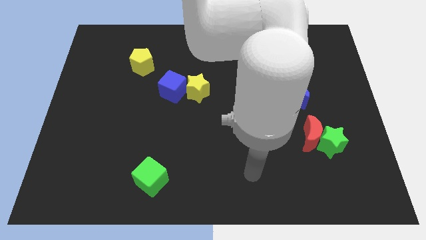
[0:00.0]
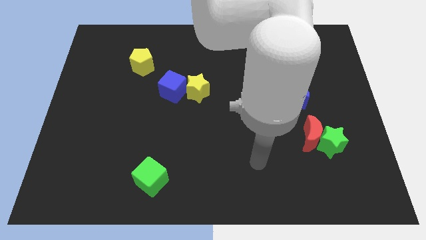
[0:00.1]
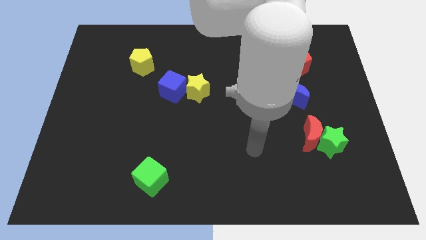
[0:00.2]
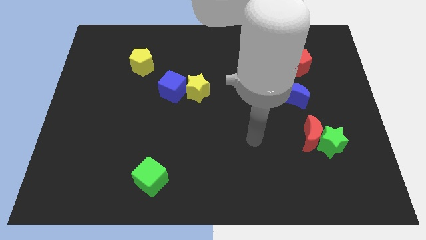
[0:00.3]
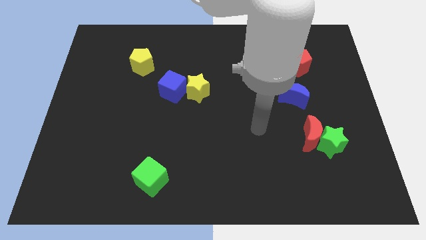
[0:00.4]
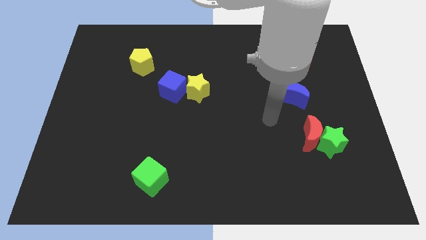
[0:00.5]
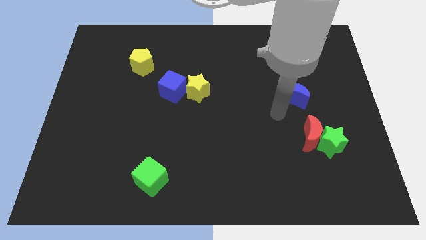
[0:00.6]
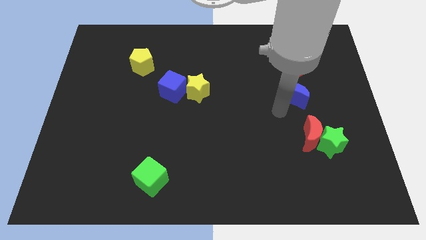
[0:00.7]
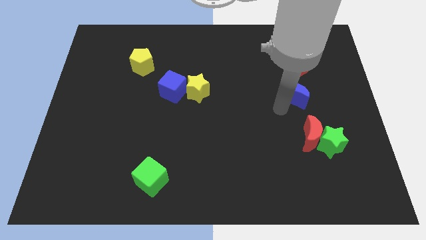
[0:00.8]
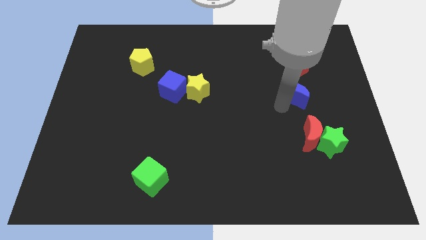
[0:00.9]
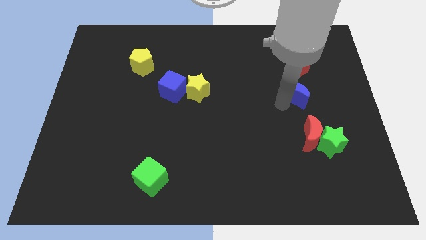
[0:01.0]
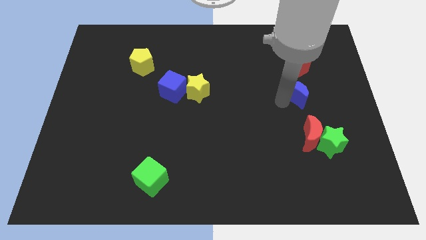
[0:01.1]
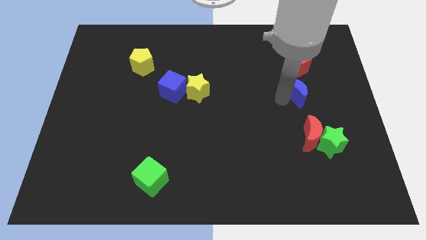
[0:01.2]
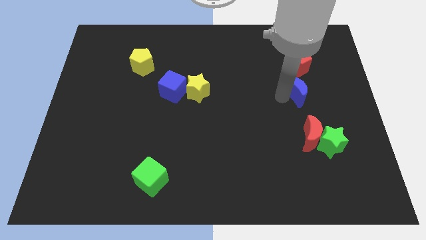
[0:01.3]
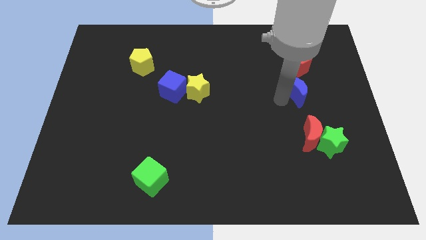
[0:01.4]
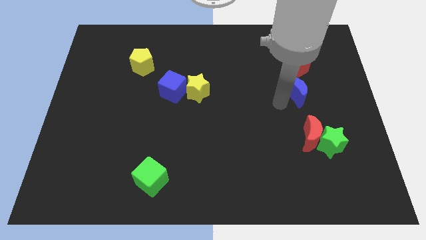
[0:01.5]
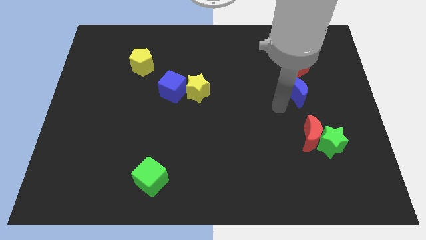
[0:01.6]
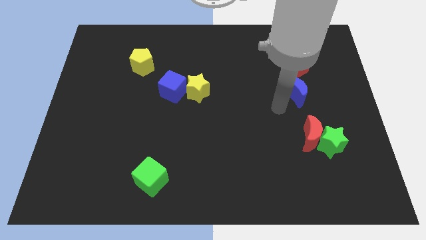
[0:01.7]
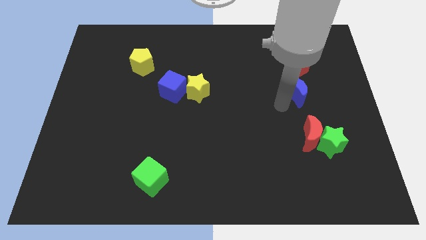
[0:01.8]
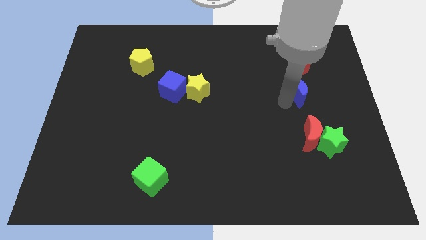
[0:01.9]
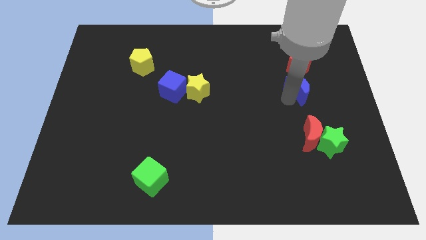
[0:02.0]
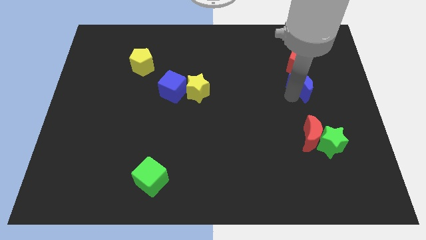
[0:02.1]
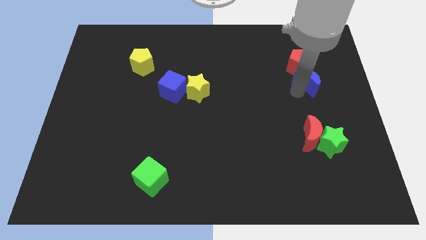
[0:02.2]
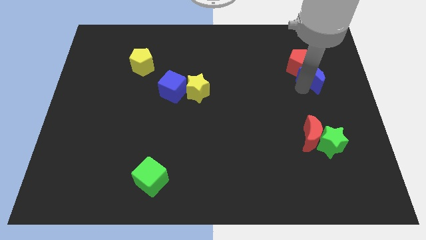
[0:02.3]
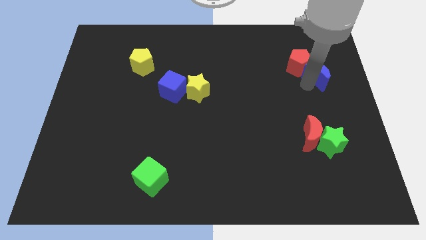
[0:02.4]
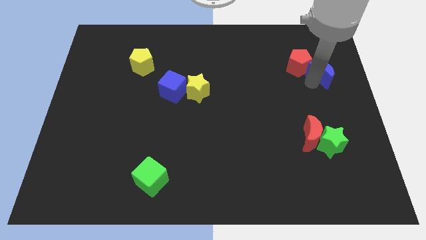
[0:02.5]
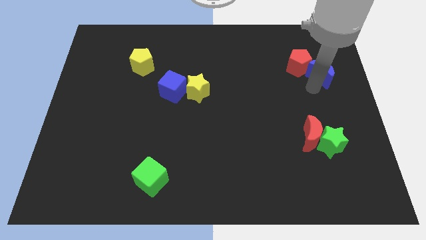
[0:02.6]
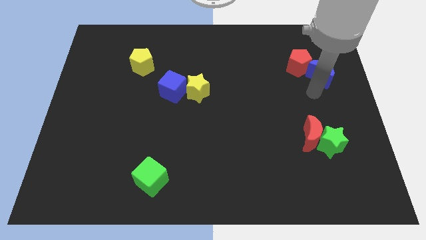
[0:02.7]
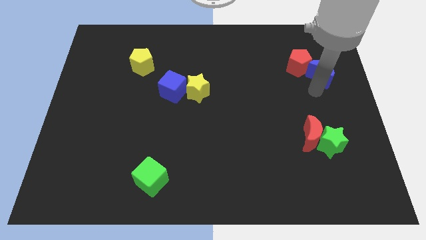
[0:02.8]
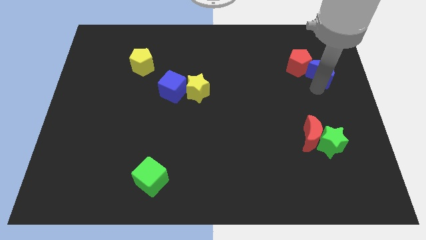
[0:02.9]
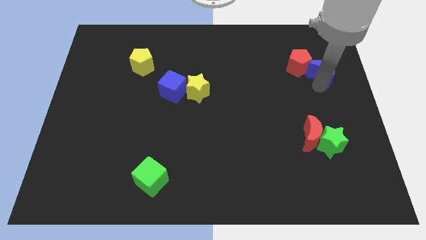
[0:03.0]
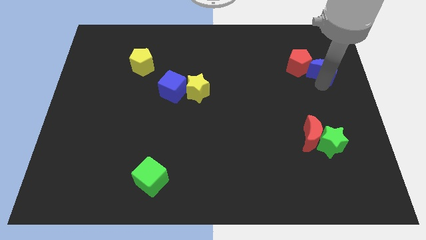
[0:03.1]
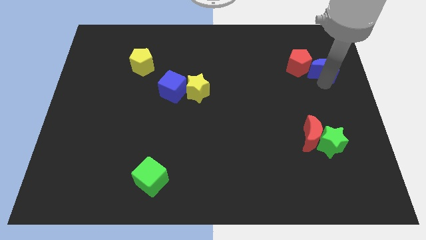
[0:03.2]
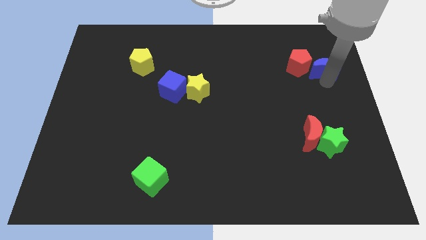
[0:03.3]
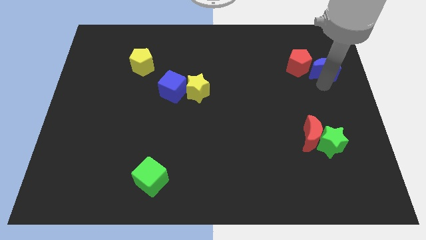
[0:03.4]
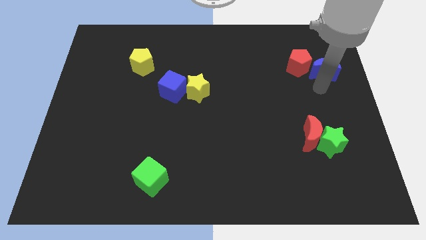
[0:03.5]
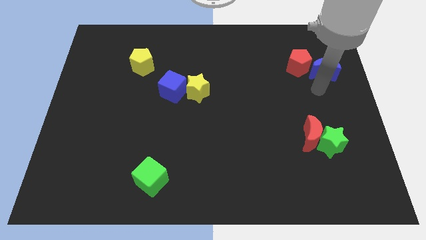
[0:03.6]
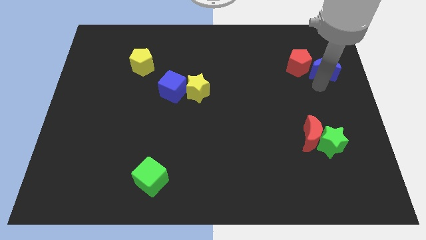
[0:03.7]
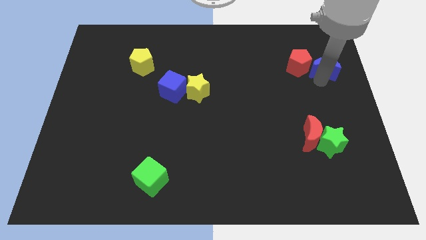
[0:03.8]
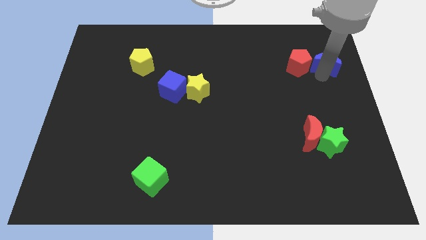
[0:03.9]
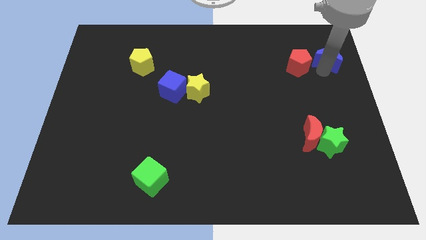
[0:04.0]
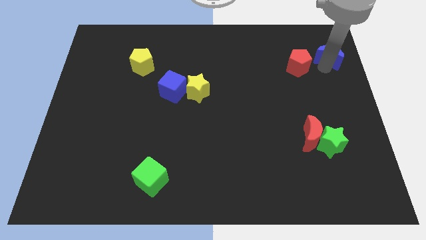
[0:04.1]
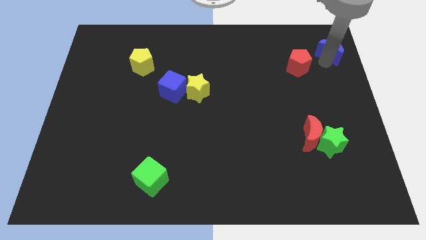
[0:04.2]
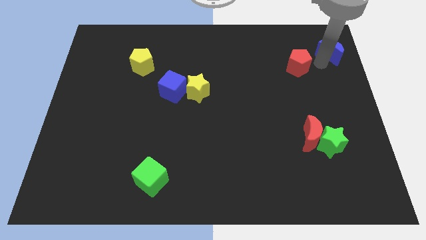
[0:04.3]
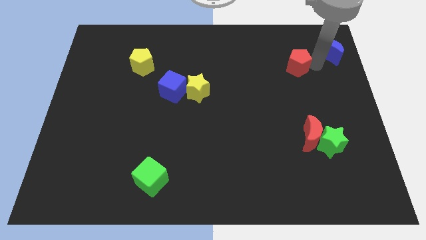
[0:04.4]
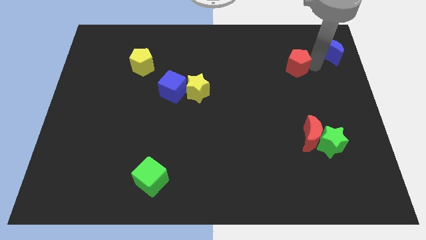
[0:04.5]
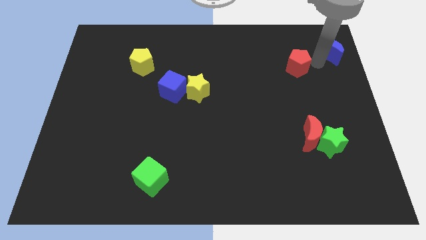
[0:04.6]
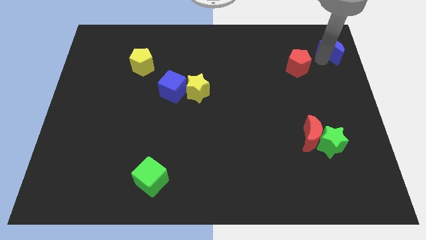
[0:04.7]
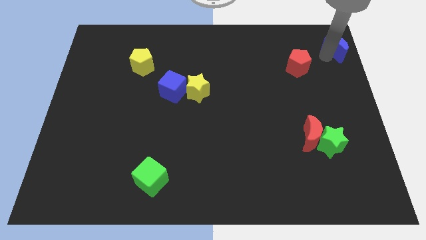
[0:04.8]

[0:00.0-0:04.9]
put the blue moon to the upper right corner

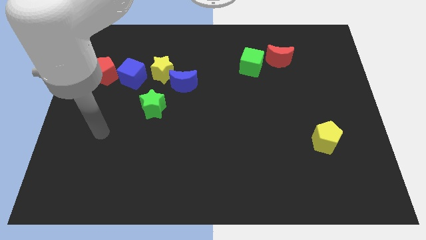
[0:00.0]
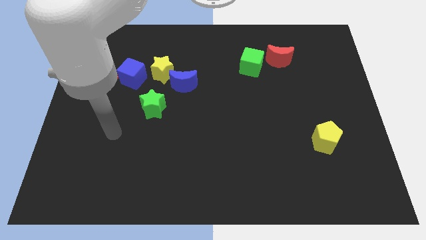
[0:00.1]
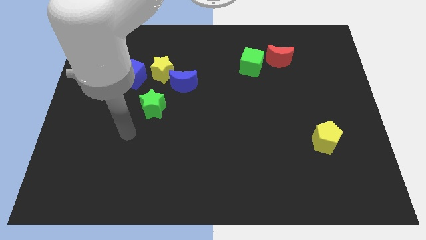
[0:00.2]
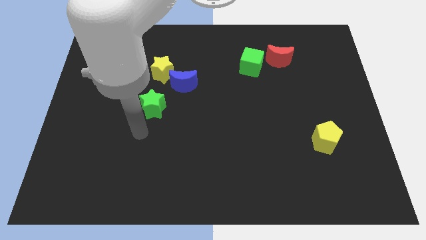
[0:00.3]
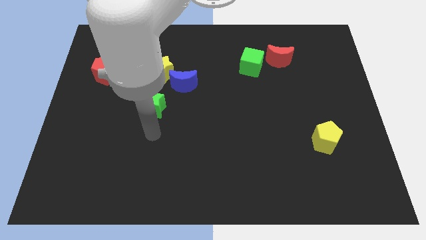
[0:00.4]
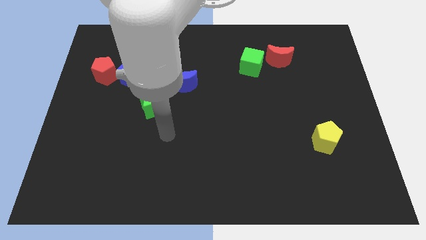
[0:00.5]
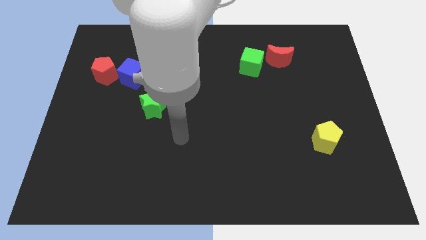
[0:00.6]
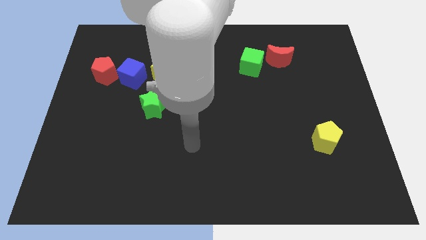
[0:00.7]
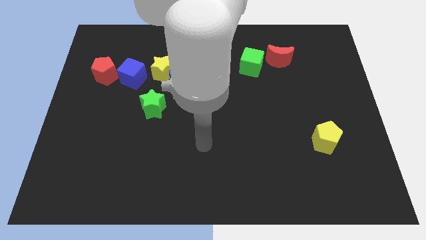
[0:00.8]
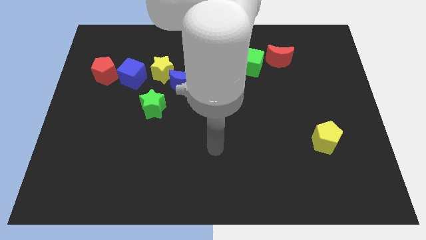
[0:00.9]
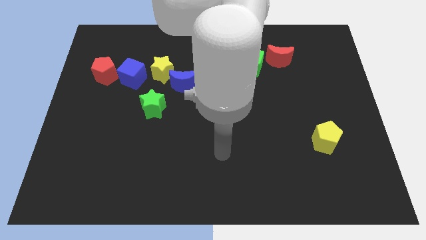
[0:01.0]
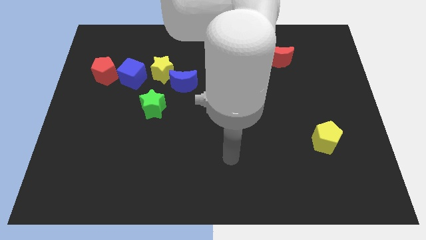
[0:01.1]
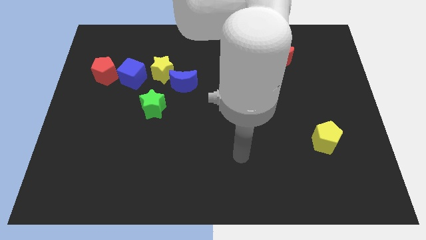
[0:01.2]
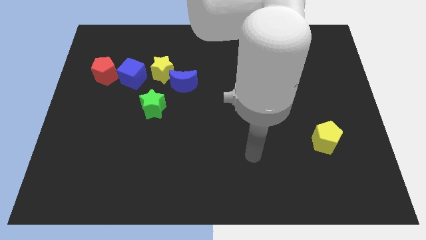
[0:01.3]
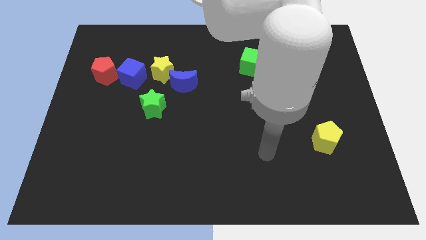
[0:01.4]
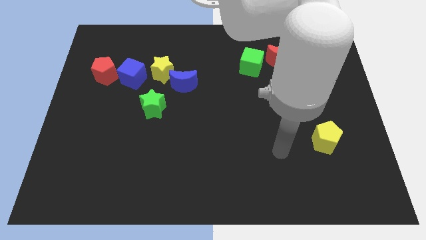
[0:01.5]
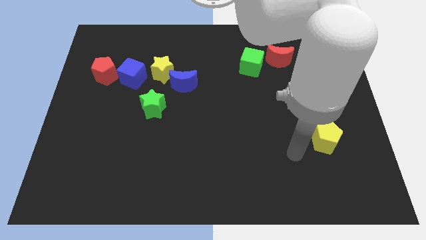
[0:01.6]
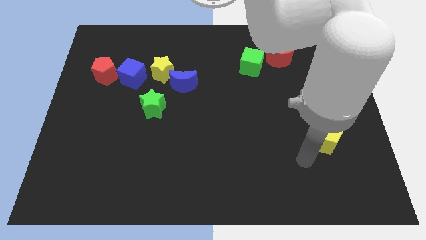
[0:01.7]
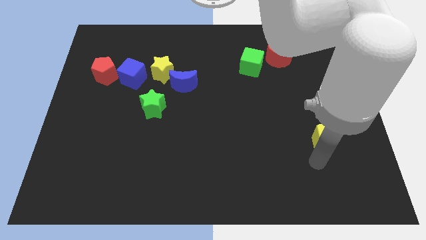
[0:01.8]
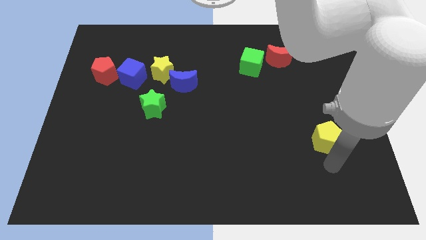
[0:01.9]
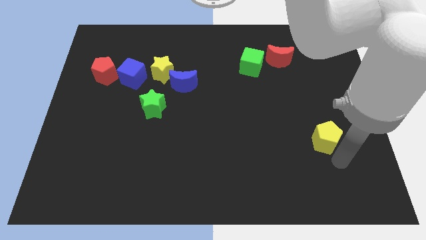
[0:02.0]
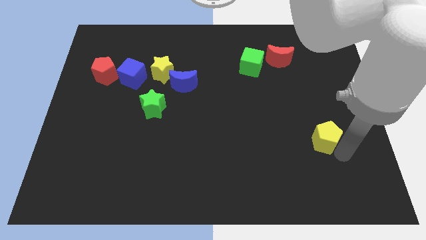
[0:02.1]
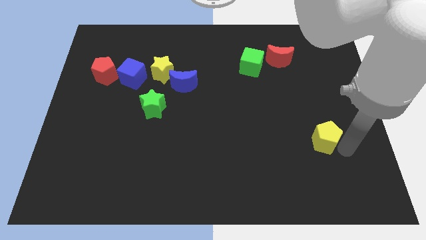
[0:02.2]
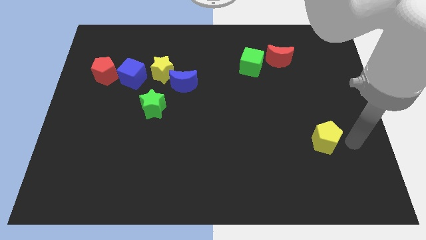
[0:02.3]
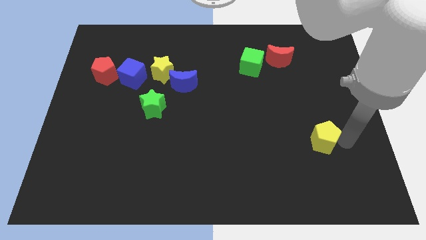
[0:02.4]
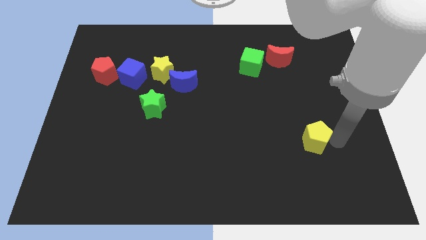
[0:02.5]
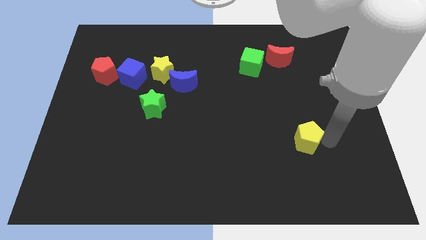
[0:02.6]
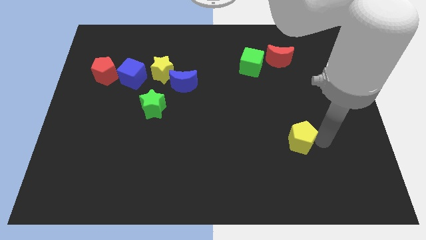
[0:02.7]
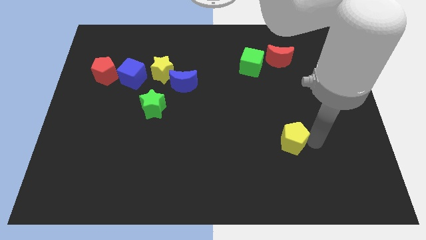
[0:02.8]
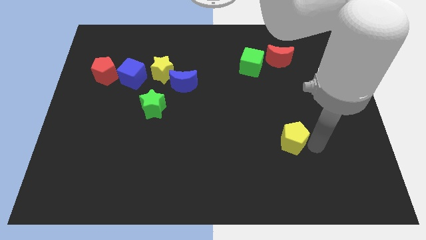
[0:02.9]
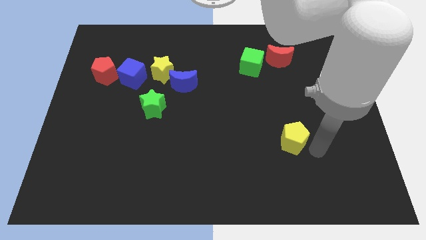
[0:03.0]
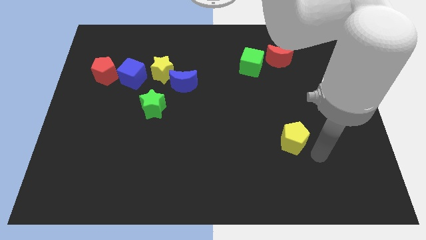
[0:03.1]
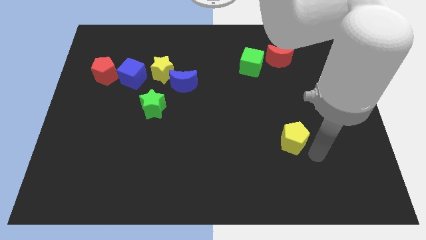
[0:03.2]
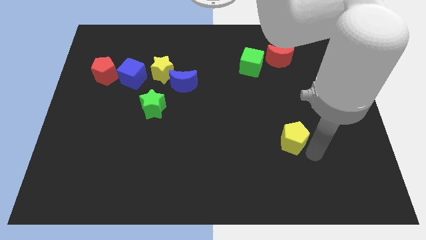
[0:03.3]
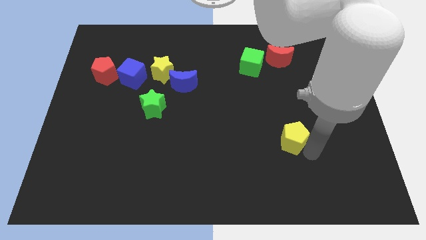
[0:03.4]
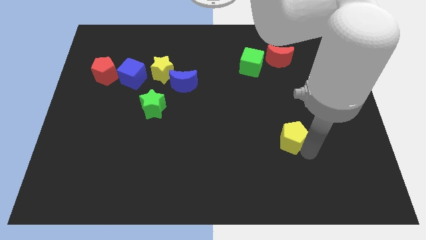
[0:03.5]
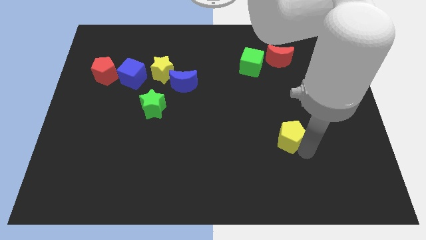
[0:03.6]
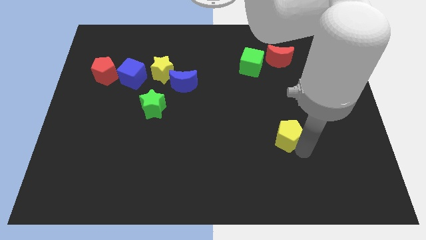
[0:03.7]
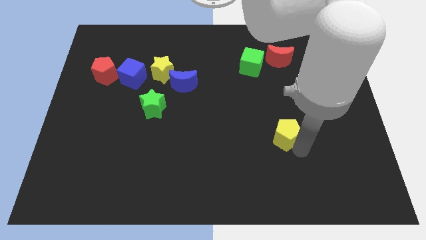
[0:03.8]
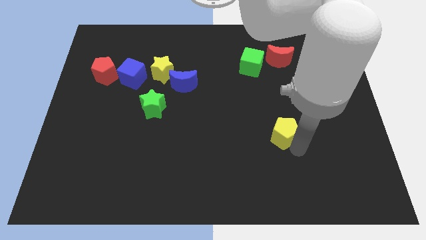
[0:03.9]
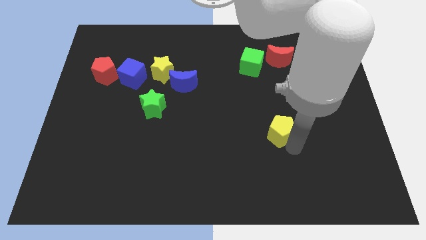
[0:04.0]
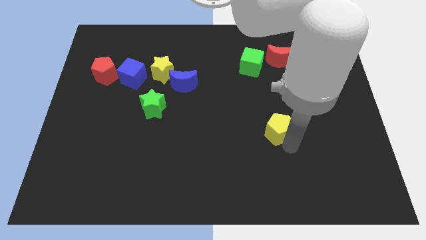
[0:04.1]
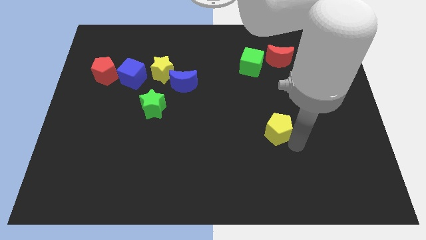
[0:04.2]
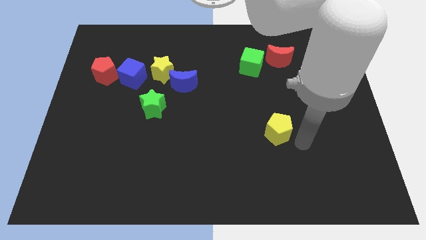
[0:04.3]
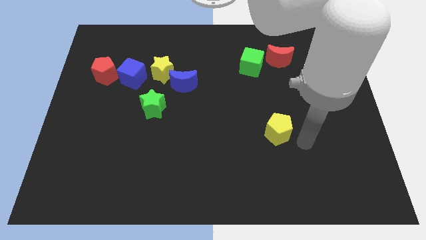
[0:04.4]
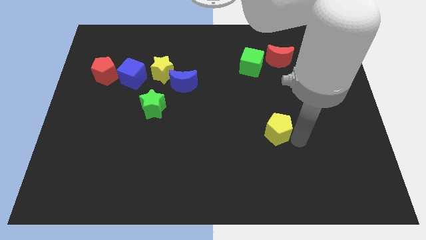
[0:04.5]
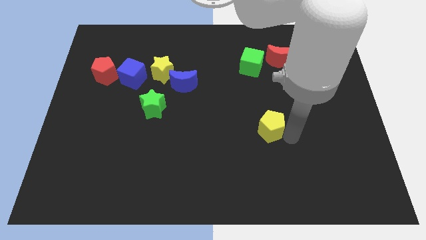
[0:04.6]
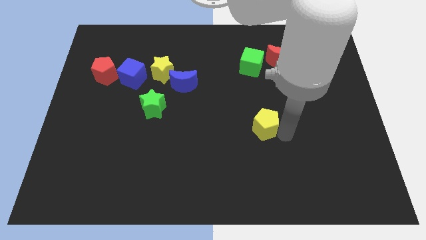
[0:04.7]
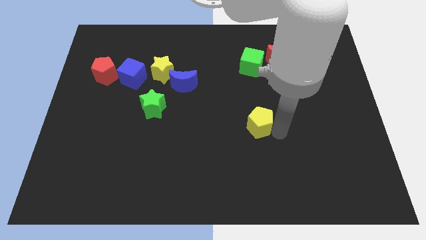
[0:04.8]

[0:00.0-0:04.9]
put the yellow pentagon to the center
